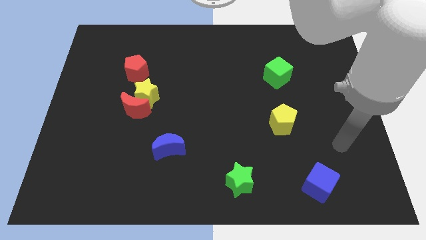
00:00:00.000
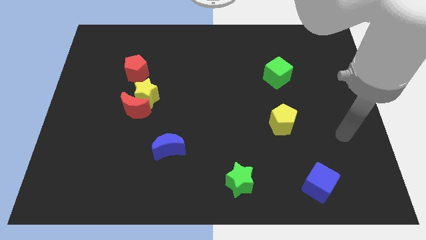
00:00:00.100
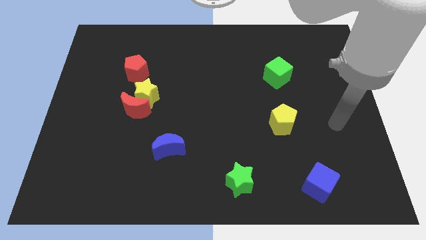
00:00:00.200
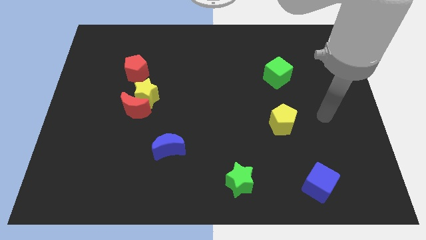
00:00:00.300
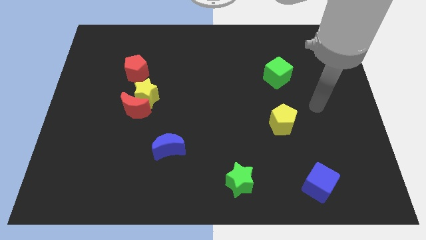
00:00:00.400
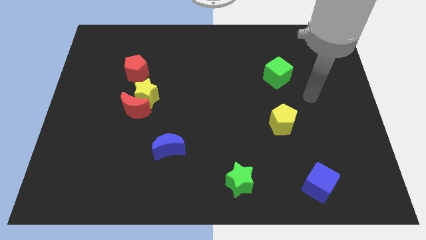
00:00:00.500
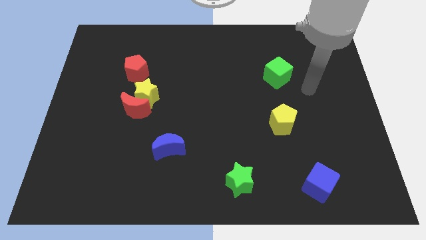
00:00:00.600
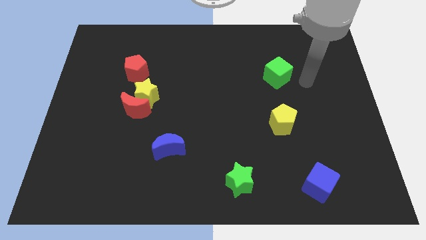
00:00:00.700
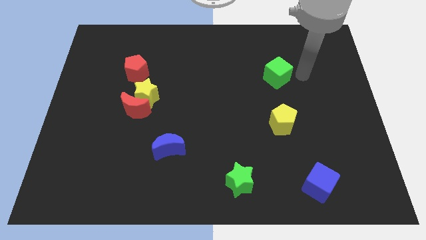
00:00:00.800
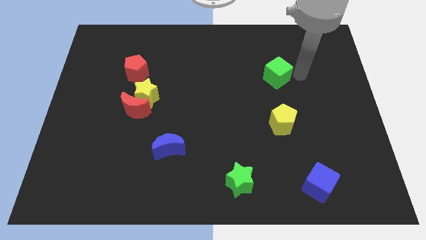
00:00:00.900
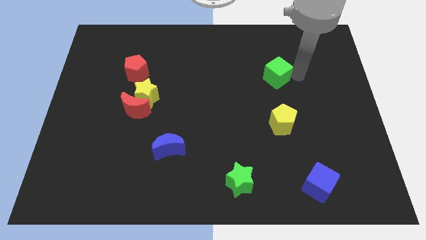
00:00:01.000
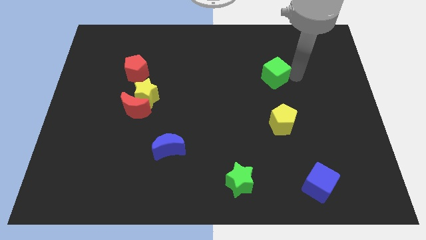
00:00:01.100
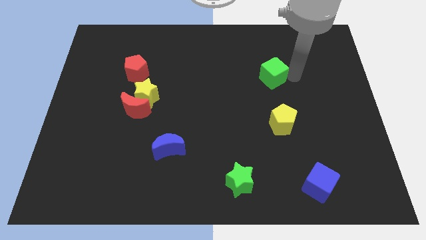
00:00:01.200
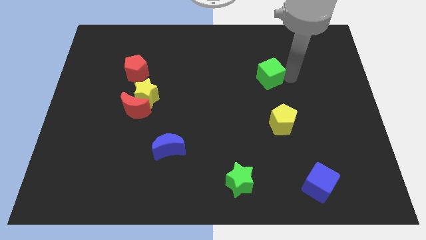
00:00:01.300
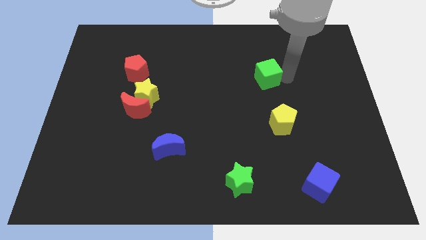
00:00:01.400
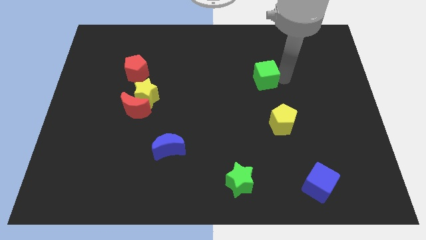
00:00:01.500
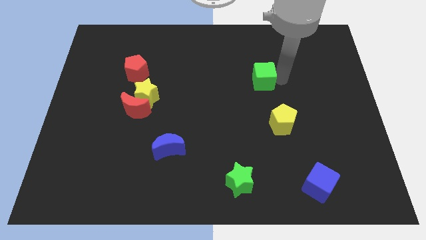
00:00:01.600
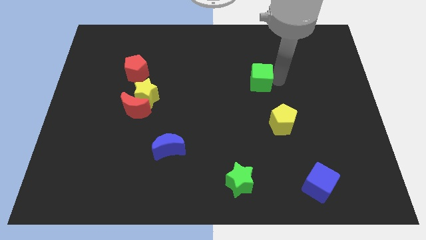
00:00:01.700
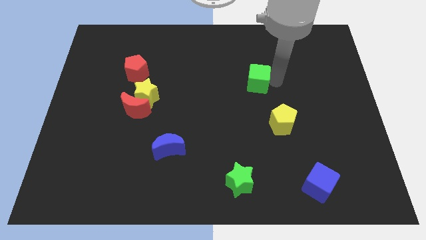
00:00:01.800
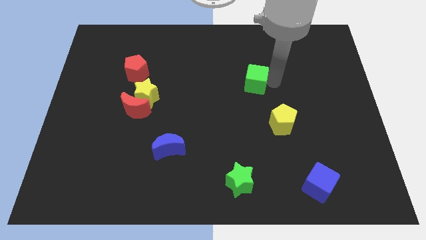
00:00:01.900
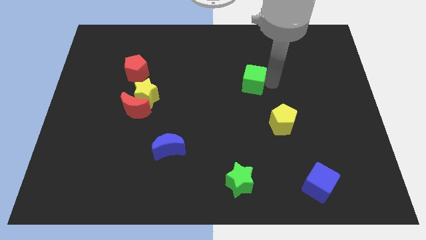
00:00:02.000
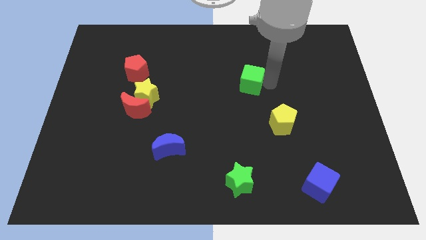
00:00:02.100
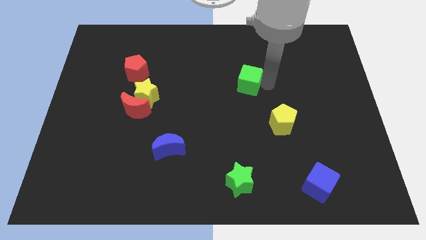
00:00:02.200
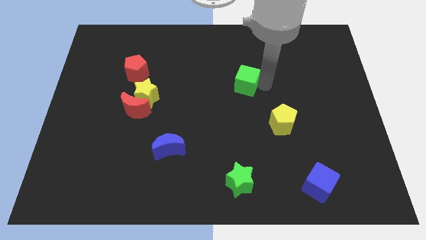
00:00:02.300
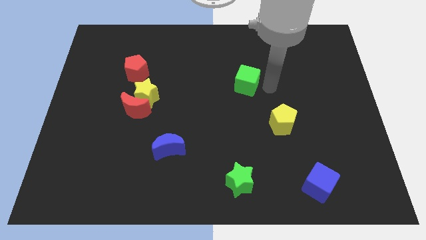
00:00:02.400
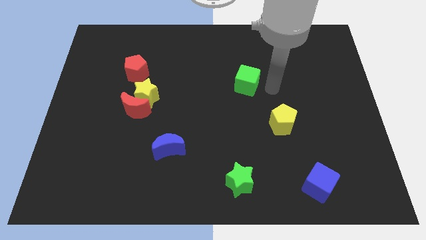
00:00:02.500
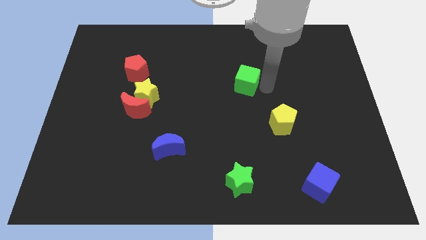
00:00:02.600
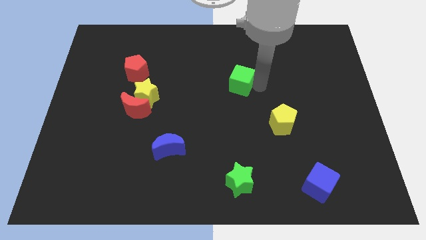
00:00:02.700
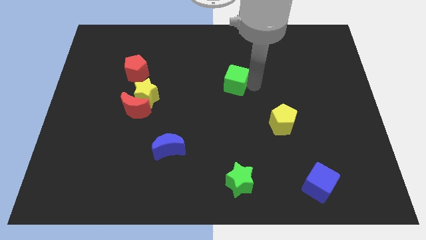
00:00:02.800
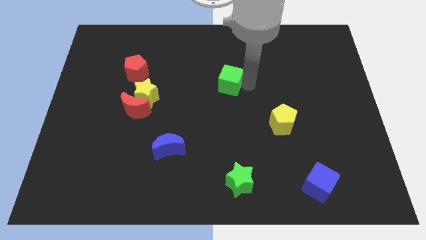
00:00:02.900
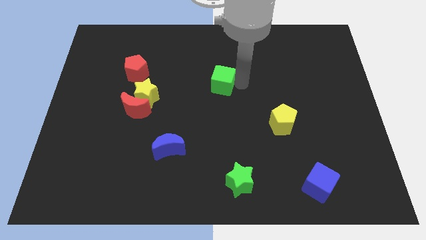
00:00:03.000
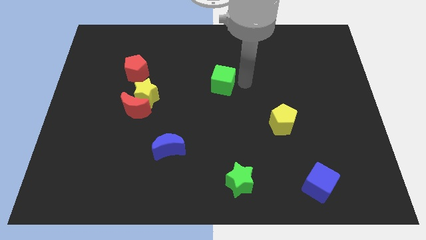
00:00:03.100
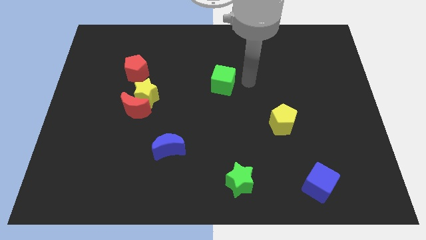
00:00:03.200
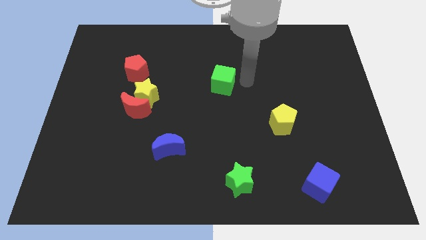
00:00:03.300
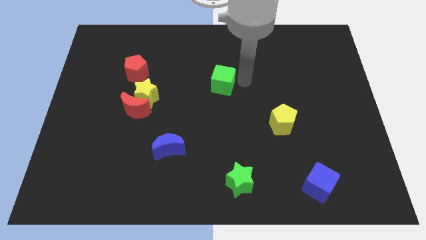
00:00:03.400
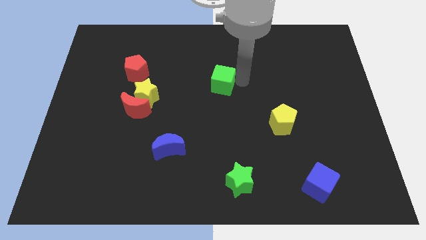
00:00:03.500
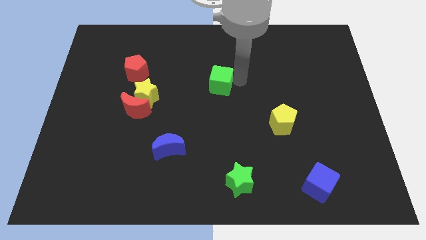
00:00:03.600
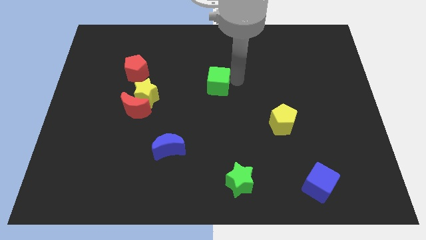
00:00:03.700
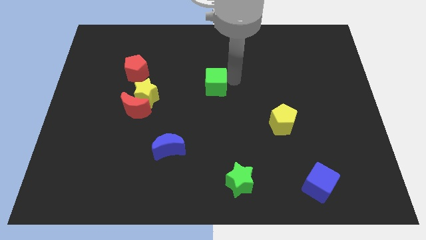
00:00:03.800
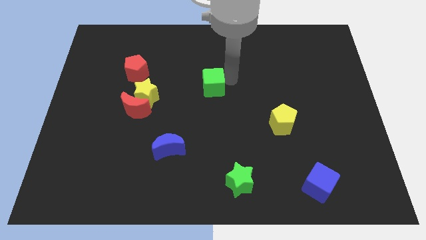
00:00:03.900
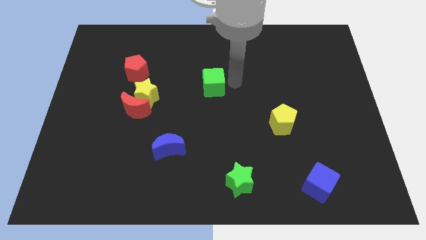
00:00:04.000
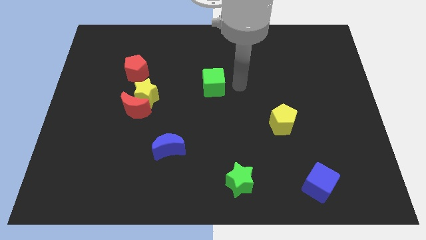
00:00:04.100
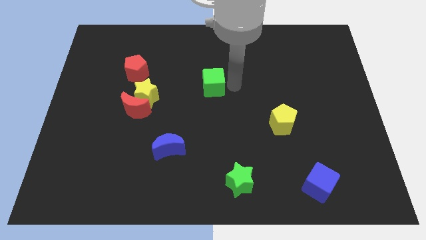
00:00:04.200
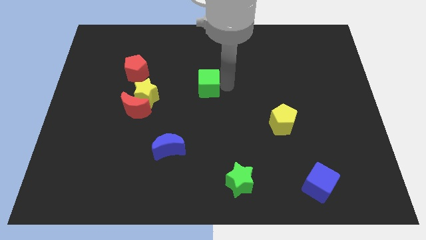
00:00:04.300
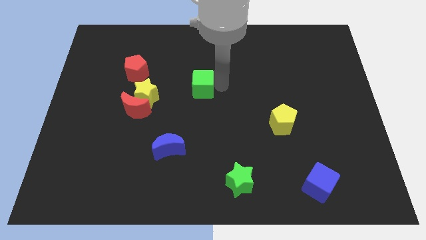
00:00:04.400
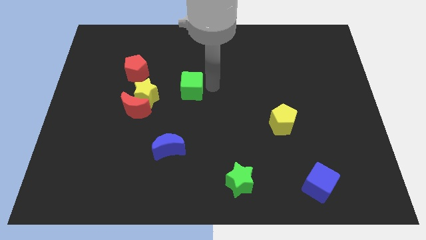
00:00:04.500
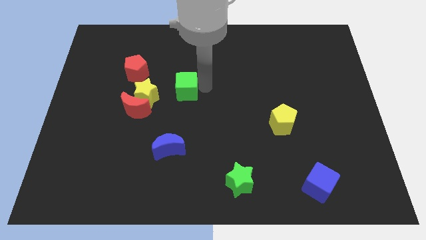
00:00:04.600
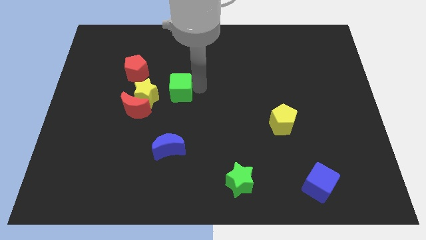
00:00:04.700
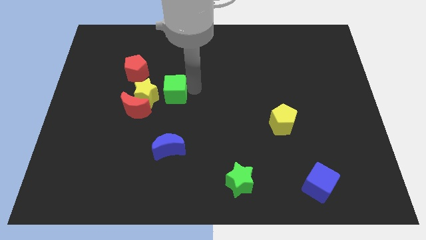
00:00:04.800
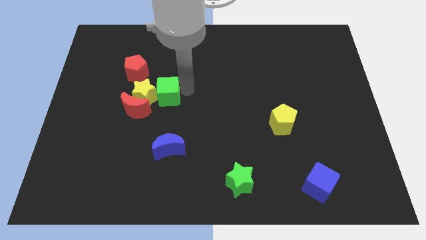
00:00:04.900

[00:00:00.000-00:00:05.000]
slide the green cube next to the yellow star

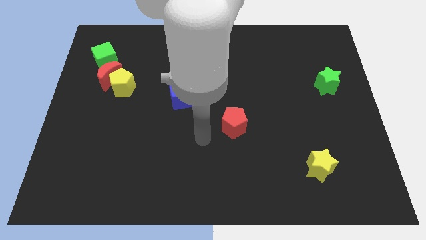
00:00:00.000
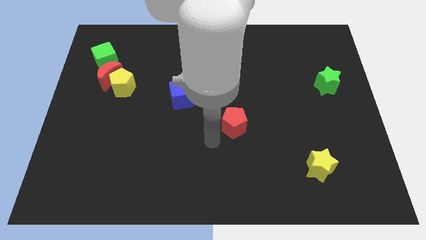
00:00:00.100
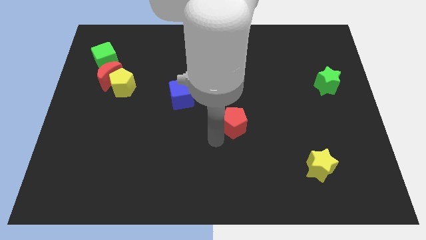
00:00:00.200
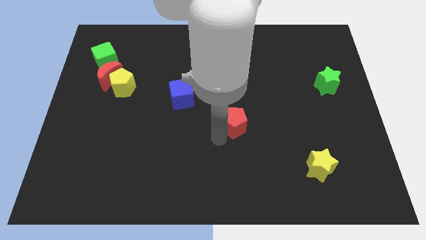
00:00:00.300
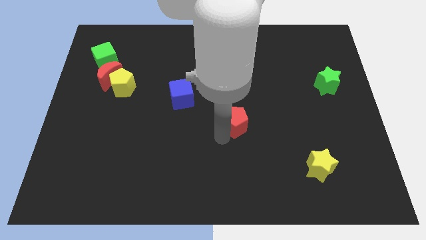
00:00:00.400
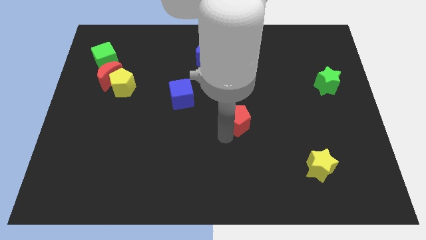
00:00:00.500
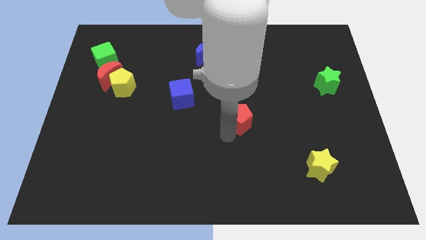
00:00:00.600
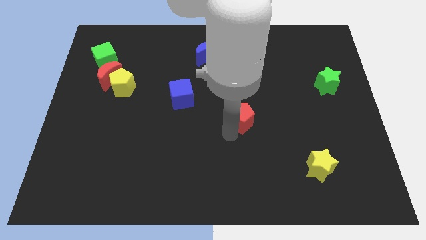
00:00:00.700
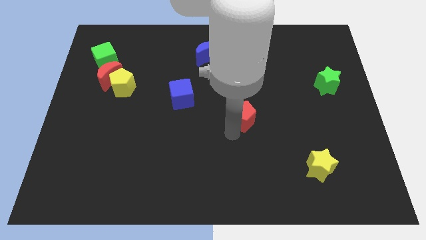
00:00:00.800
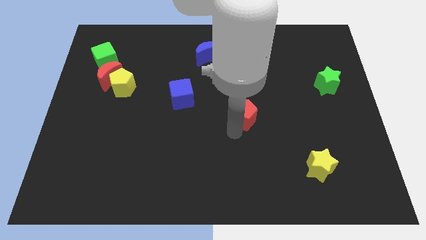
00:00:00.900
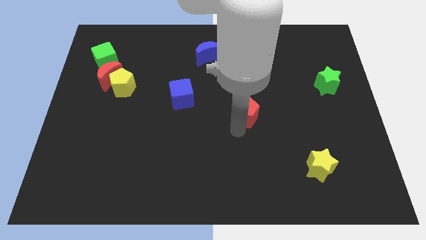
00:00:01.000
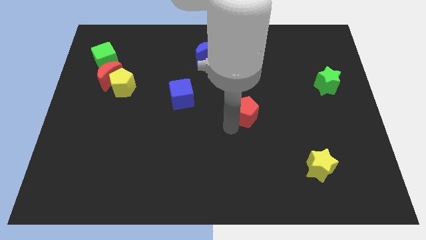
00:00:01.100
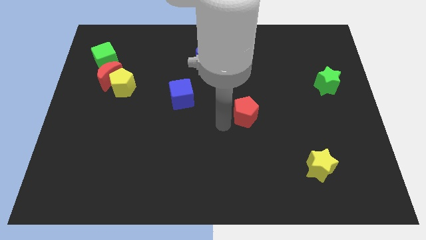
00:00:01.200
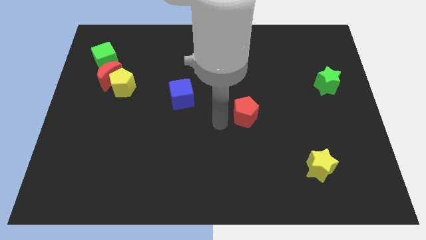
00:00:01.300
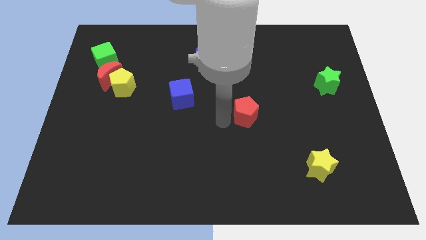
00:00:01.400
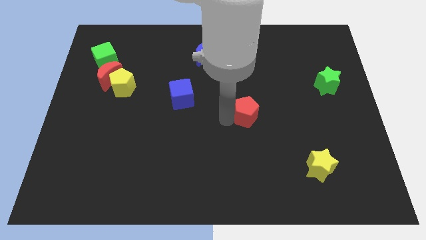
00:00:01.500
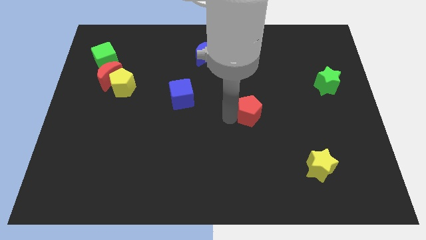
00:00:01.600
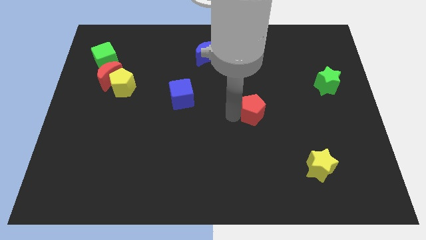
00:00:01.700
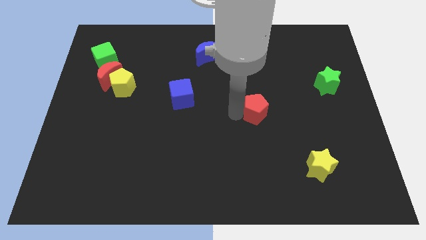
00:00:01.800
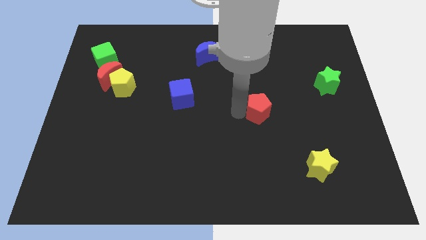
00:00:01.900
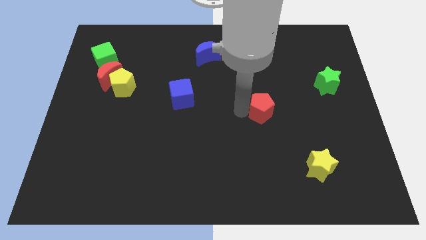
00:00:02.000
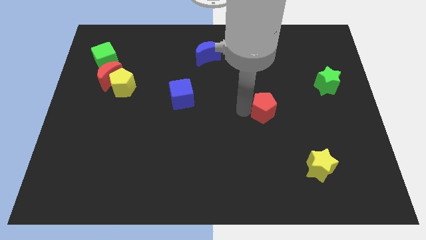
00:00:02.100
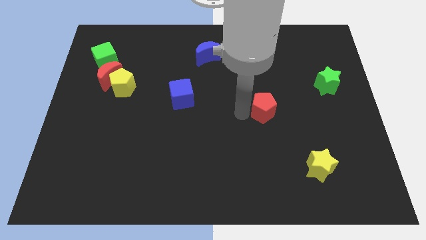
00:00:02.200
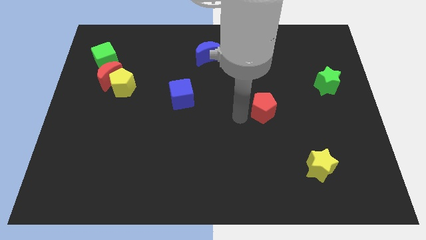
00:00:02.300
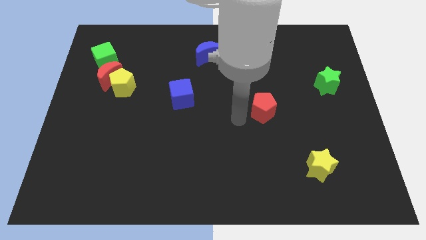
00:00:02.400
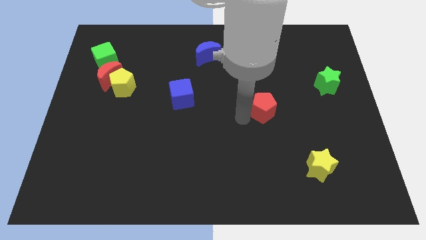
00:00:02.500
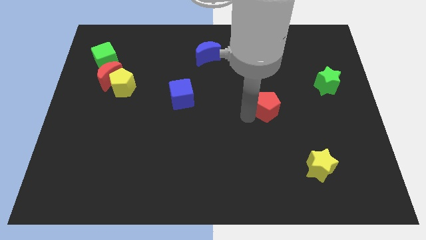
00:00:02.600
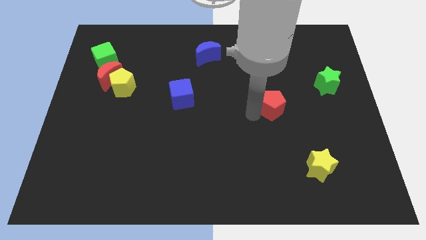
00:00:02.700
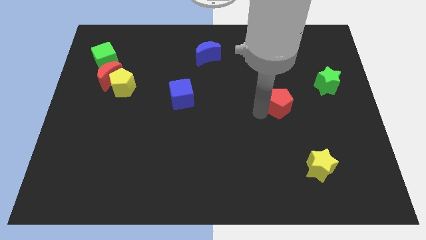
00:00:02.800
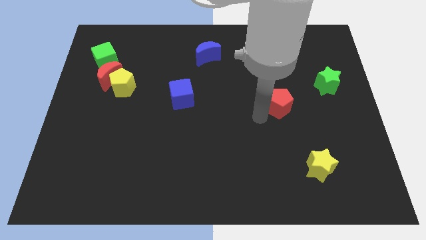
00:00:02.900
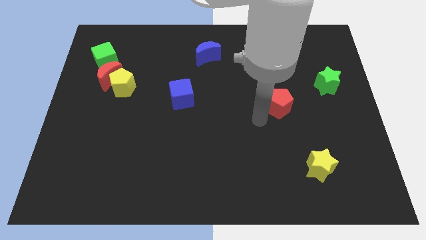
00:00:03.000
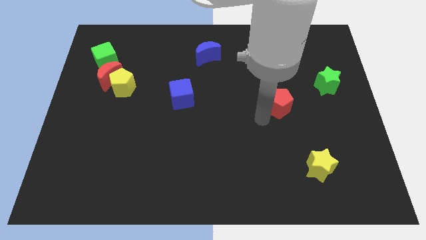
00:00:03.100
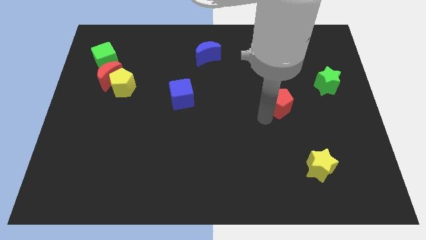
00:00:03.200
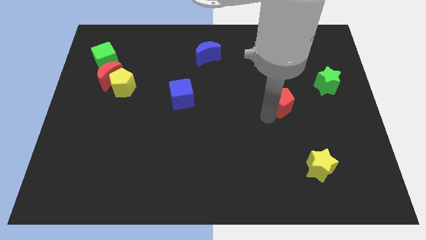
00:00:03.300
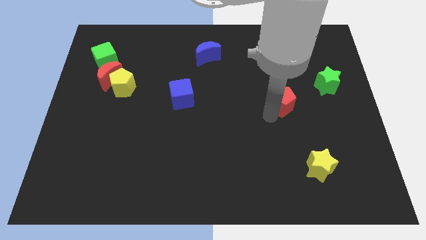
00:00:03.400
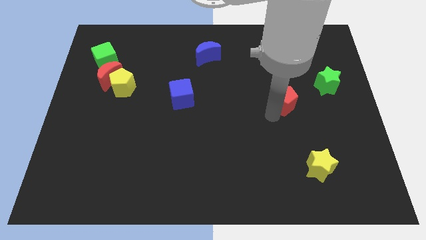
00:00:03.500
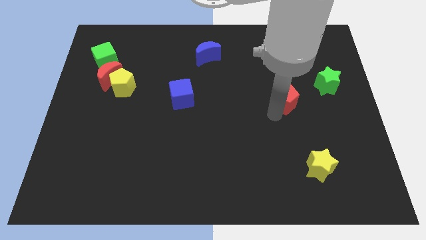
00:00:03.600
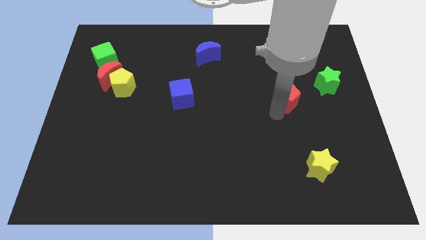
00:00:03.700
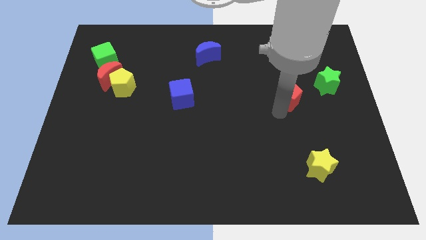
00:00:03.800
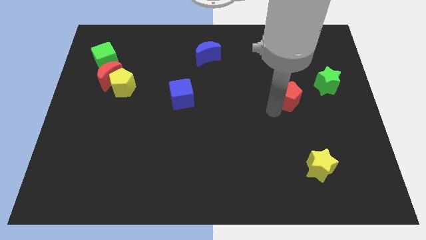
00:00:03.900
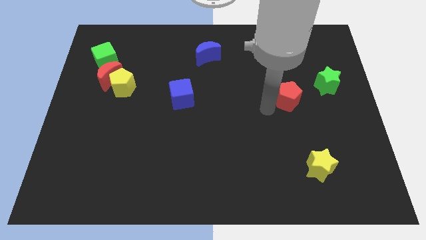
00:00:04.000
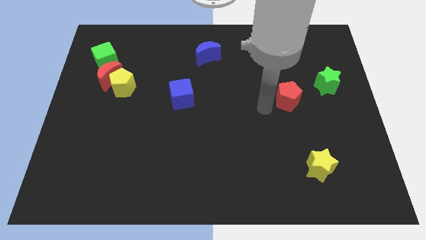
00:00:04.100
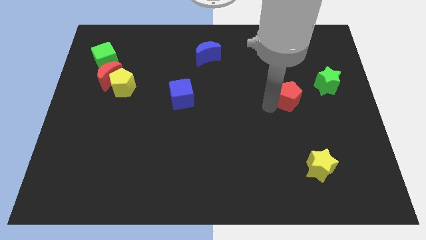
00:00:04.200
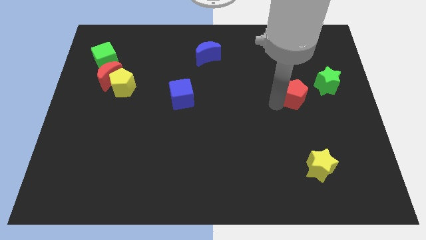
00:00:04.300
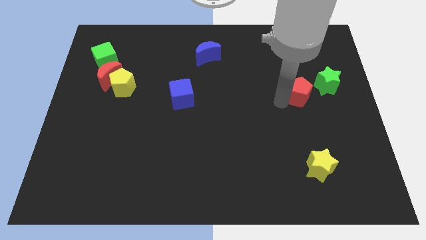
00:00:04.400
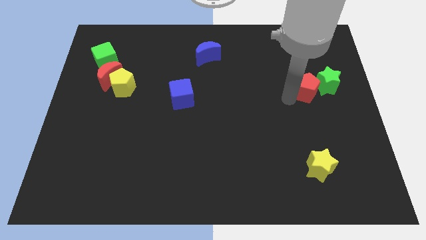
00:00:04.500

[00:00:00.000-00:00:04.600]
put the red pentagon next to the green star
